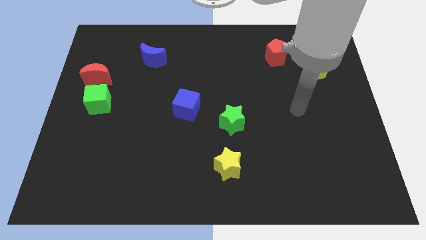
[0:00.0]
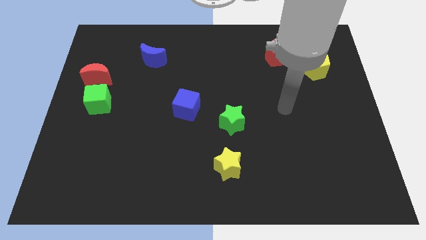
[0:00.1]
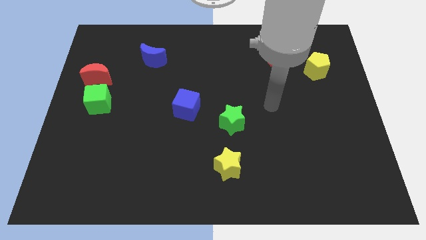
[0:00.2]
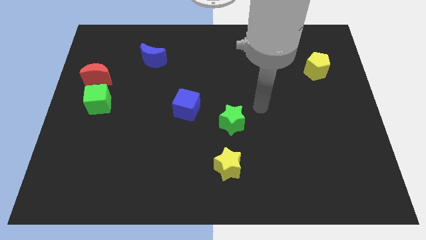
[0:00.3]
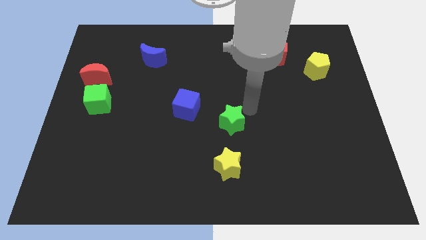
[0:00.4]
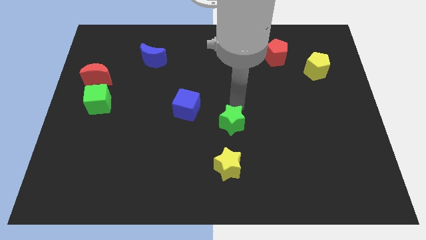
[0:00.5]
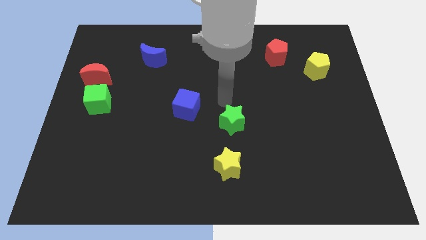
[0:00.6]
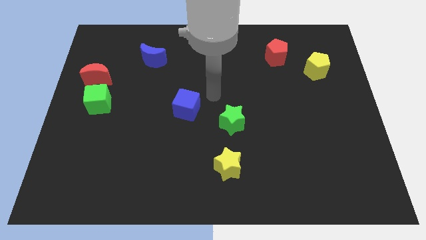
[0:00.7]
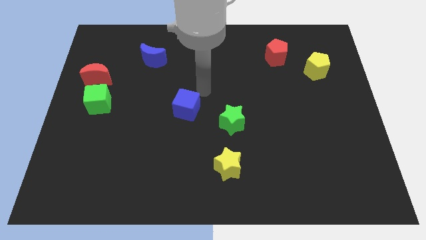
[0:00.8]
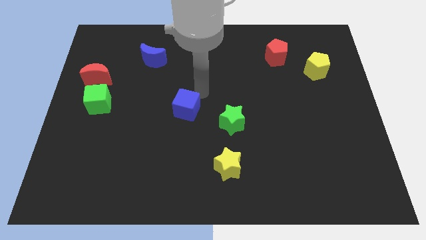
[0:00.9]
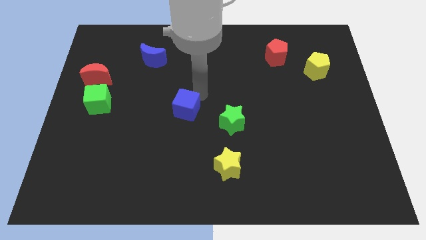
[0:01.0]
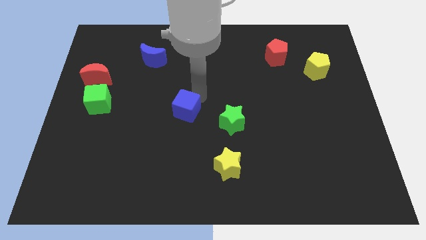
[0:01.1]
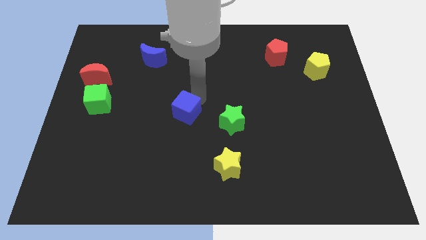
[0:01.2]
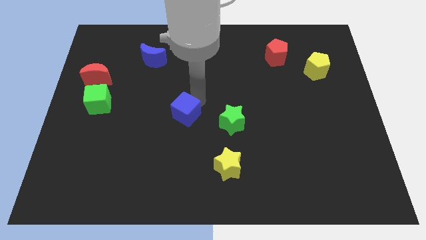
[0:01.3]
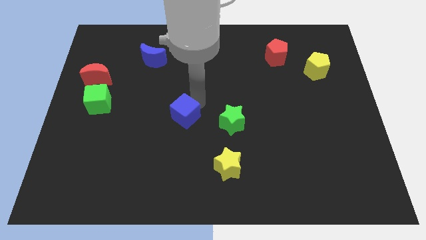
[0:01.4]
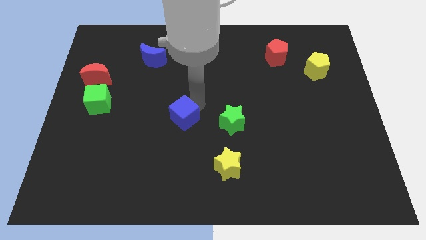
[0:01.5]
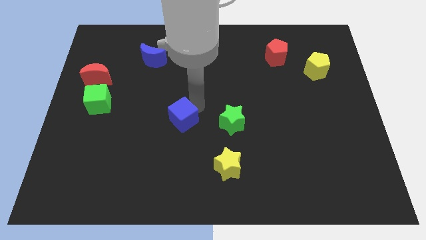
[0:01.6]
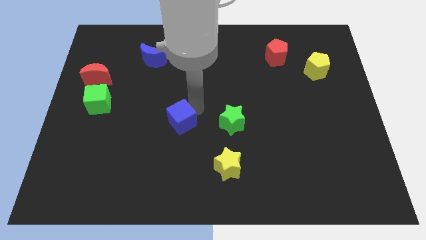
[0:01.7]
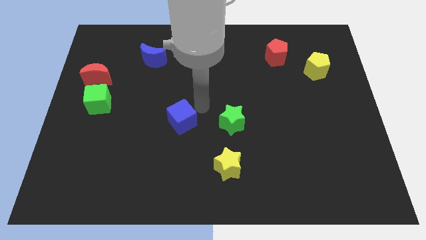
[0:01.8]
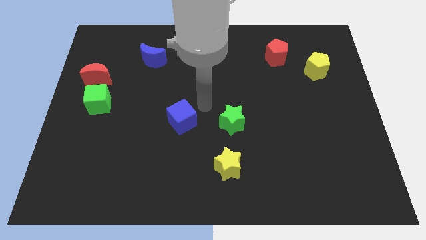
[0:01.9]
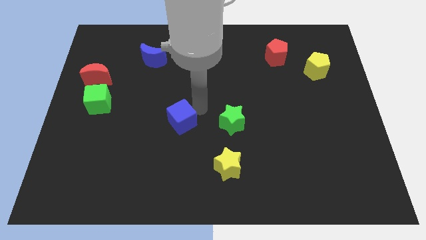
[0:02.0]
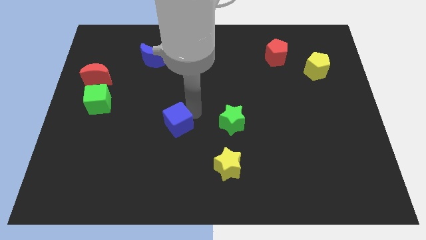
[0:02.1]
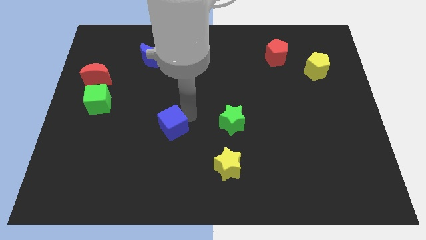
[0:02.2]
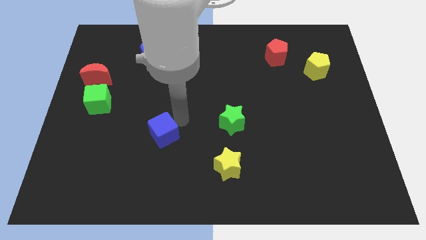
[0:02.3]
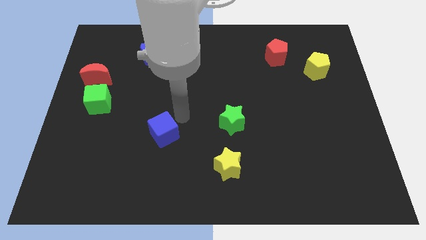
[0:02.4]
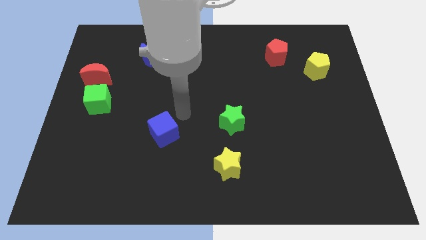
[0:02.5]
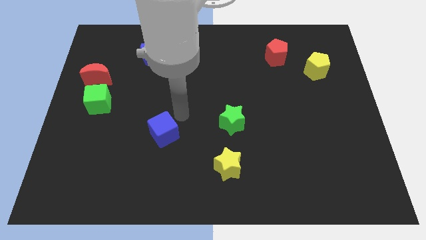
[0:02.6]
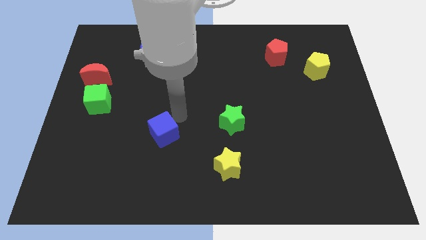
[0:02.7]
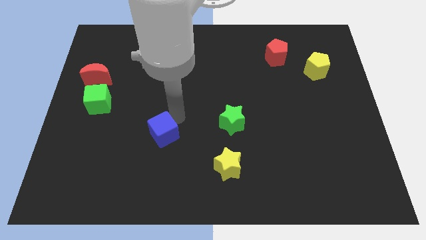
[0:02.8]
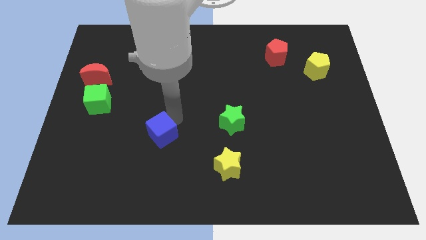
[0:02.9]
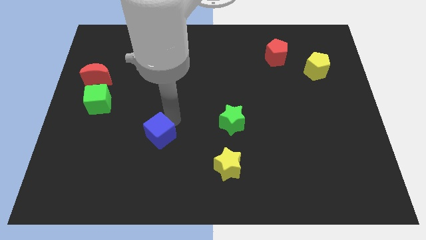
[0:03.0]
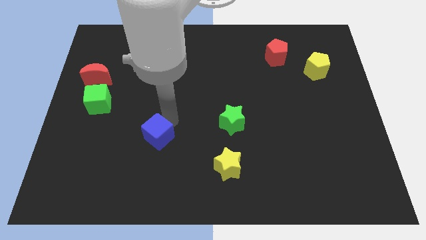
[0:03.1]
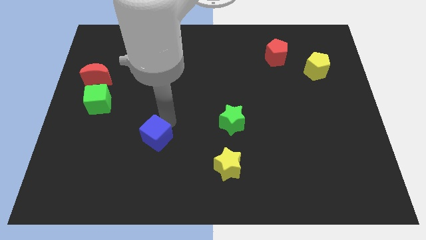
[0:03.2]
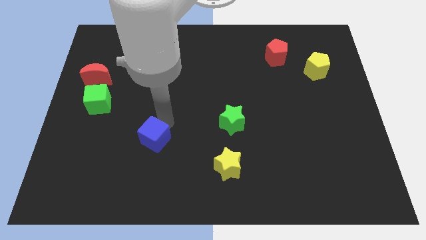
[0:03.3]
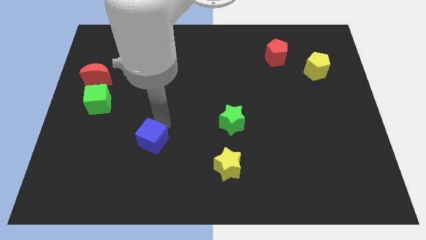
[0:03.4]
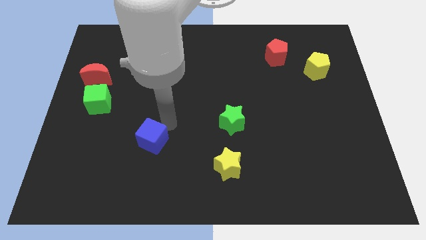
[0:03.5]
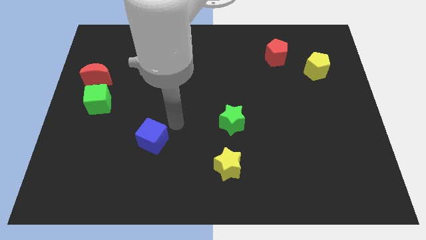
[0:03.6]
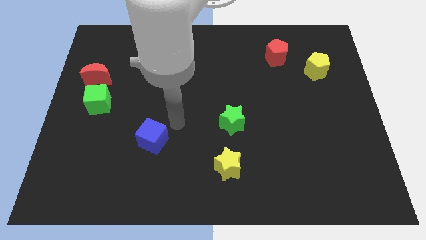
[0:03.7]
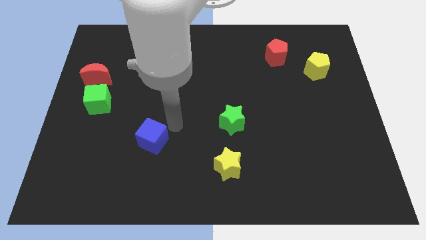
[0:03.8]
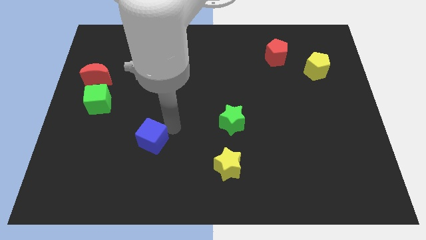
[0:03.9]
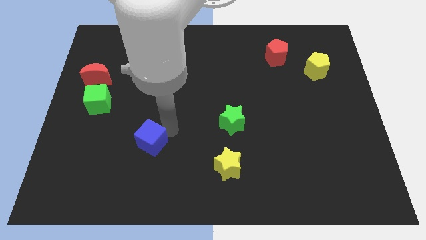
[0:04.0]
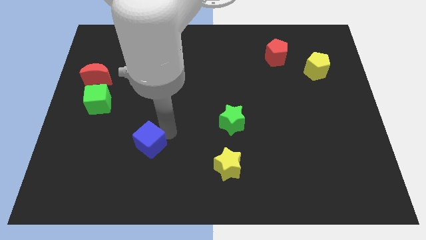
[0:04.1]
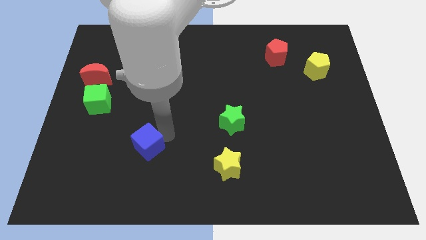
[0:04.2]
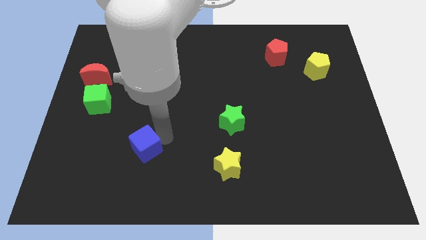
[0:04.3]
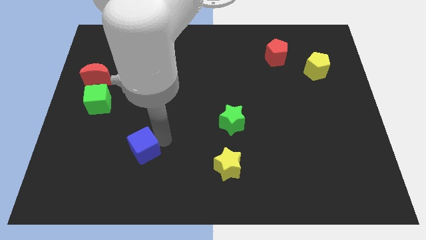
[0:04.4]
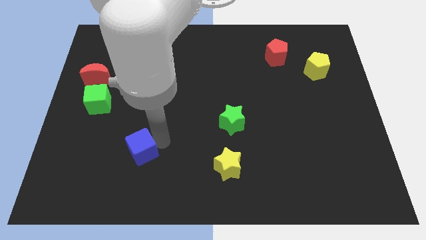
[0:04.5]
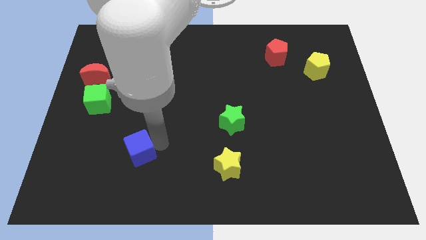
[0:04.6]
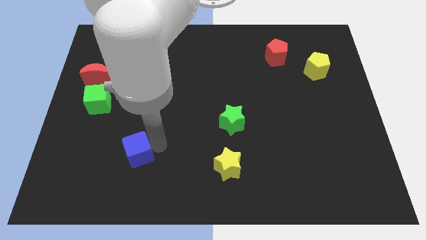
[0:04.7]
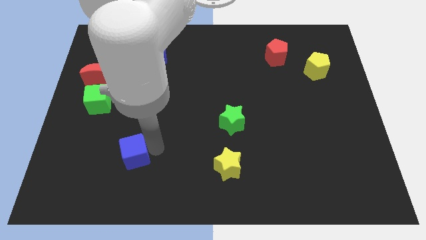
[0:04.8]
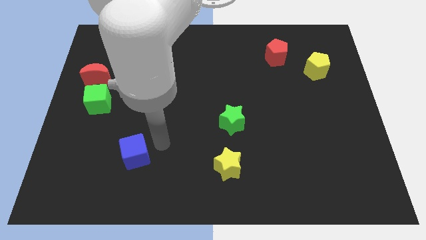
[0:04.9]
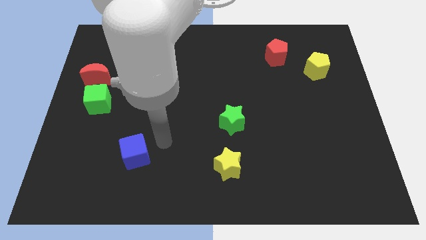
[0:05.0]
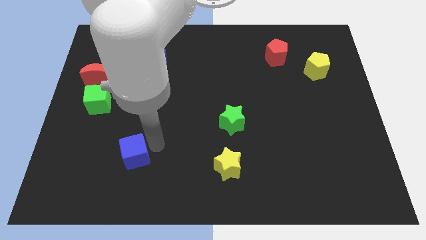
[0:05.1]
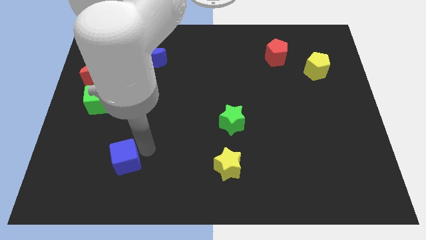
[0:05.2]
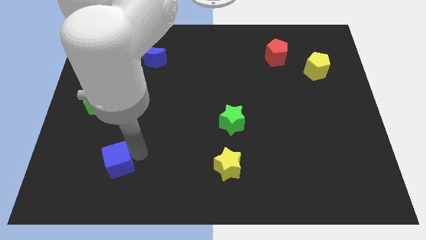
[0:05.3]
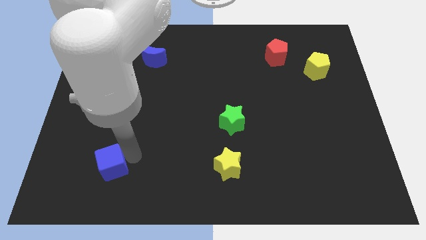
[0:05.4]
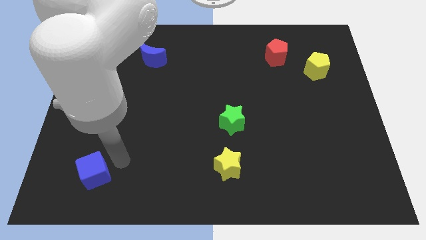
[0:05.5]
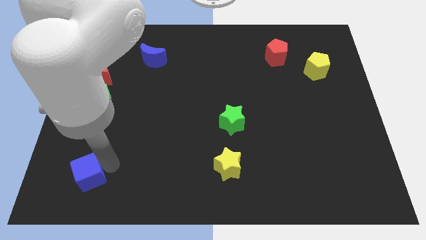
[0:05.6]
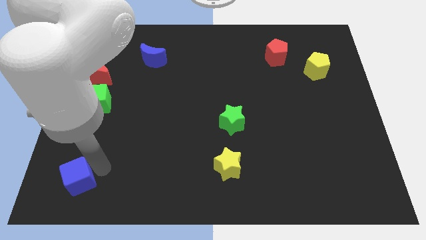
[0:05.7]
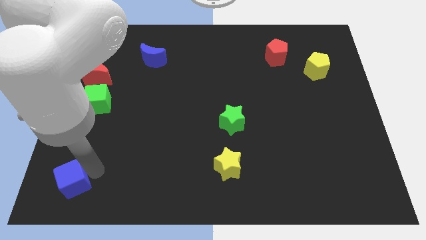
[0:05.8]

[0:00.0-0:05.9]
move the blue cube to the lower left corner

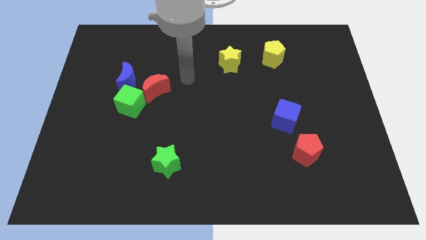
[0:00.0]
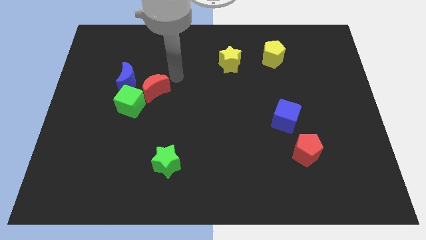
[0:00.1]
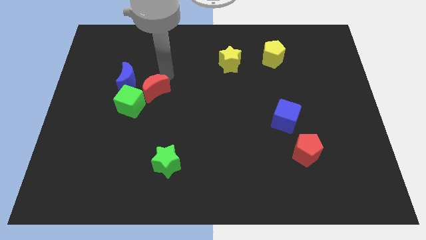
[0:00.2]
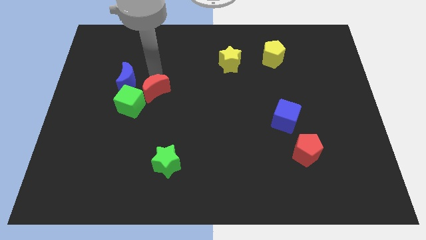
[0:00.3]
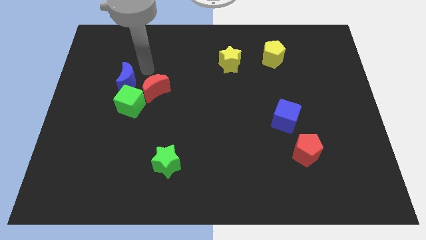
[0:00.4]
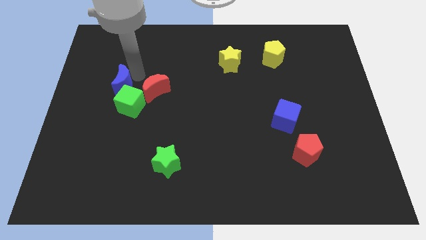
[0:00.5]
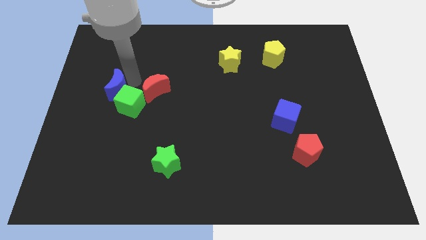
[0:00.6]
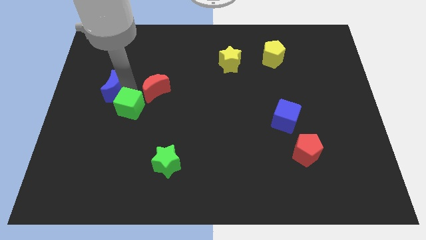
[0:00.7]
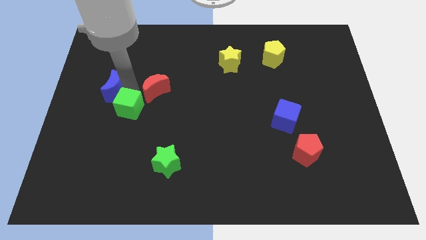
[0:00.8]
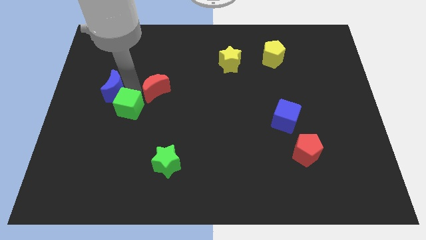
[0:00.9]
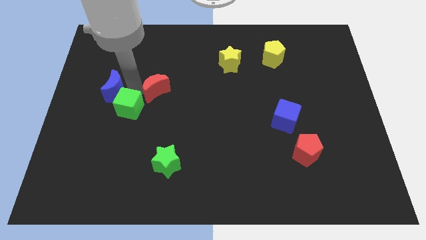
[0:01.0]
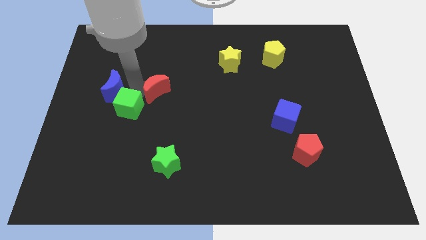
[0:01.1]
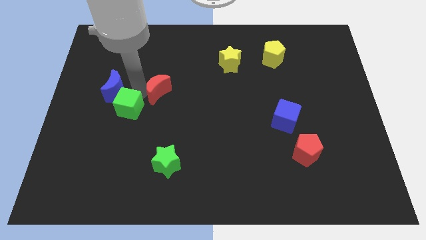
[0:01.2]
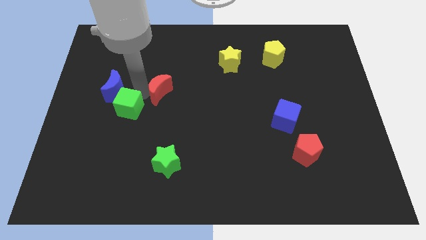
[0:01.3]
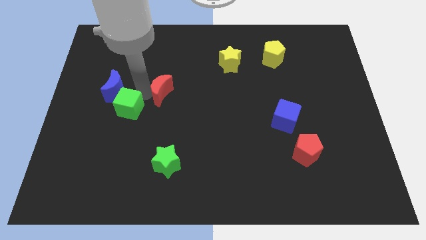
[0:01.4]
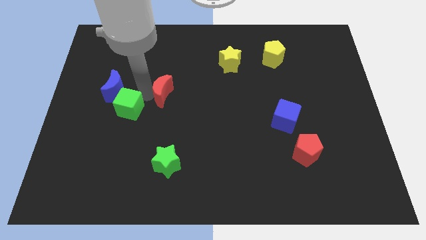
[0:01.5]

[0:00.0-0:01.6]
move the red moon to the center

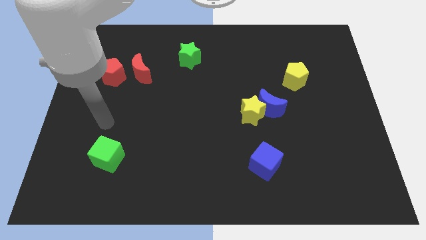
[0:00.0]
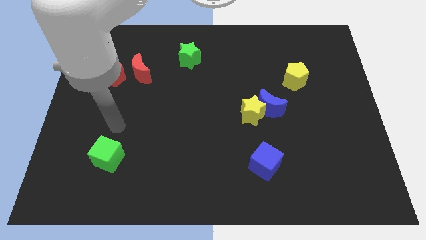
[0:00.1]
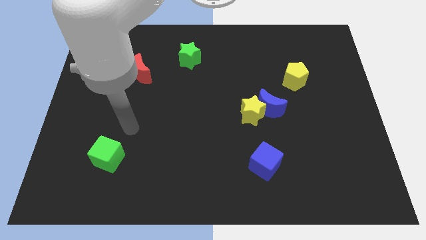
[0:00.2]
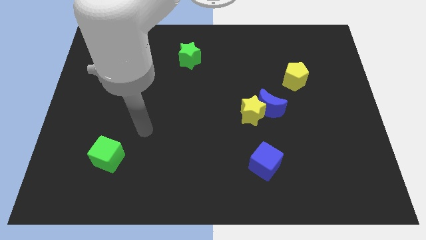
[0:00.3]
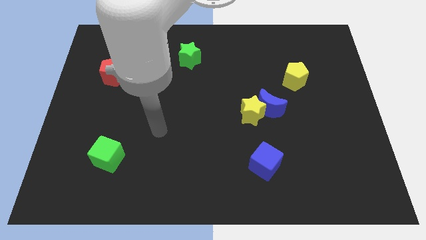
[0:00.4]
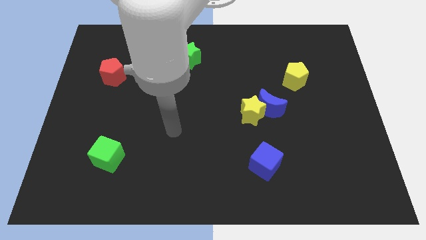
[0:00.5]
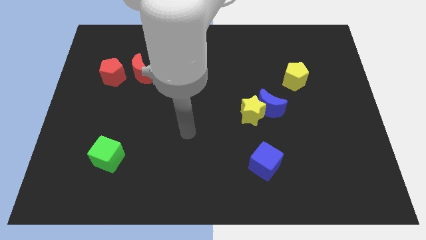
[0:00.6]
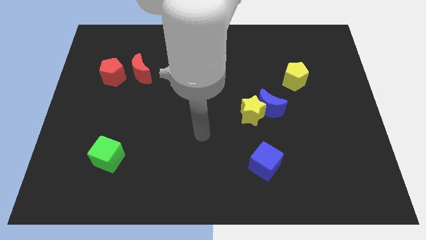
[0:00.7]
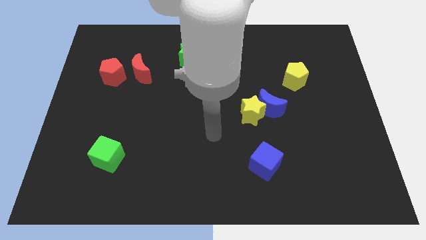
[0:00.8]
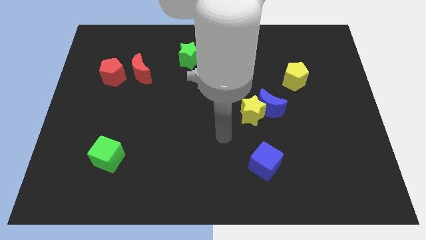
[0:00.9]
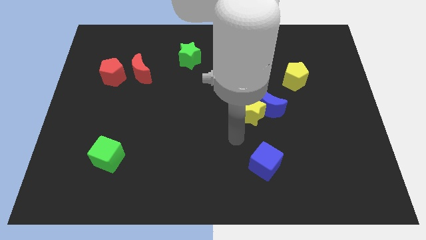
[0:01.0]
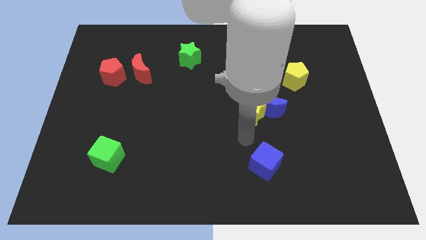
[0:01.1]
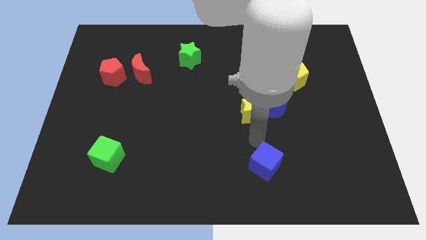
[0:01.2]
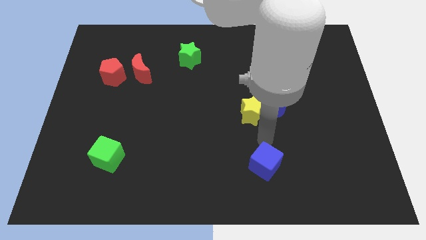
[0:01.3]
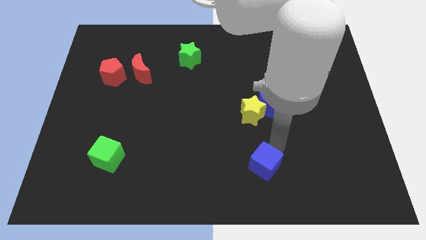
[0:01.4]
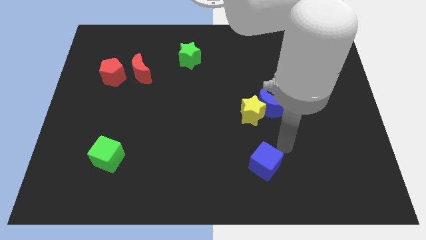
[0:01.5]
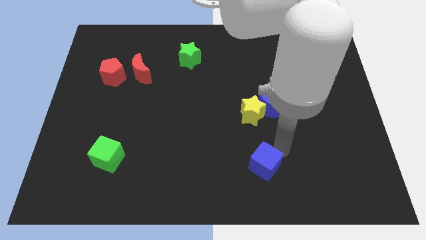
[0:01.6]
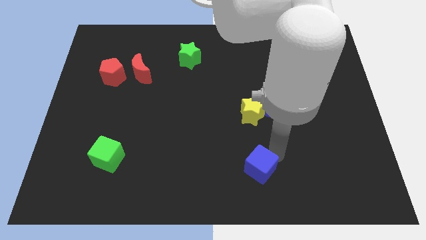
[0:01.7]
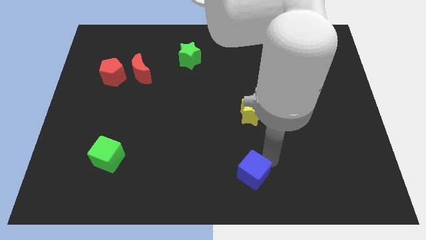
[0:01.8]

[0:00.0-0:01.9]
move the blue cube to the bottom side
